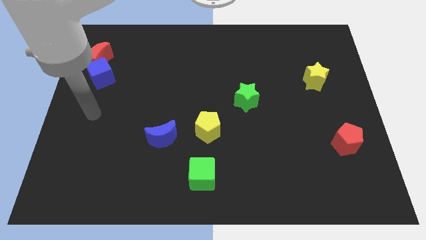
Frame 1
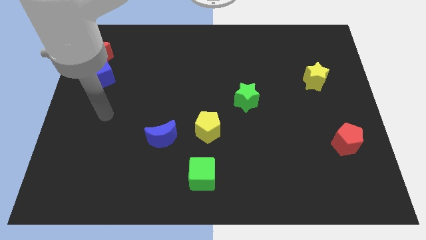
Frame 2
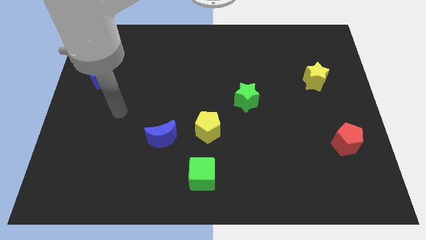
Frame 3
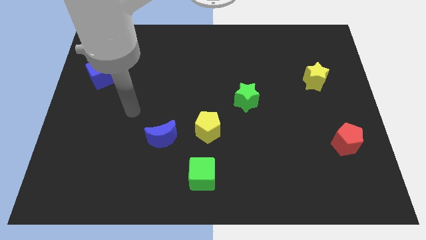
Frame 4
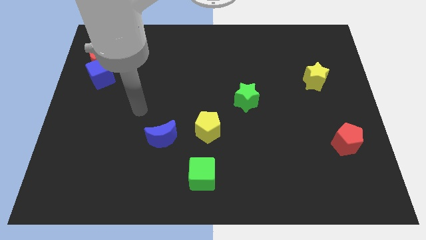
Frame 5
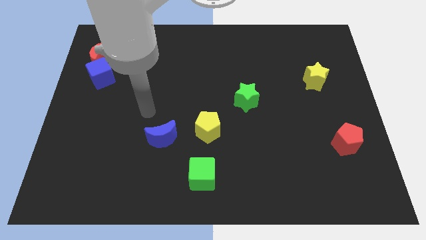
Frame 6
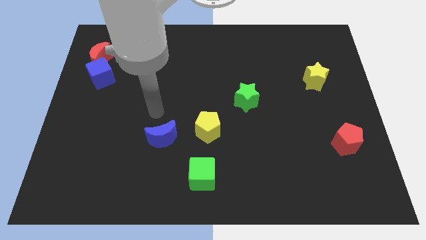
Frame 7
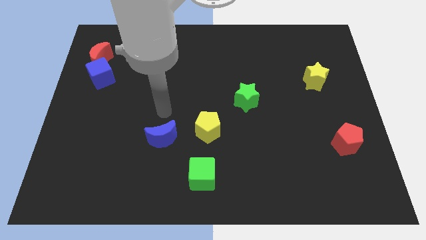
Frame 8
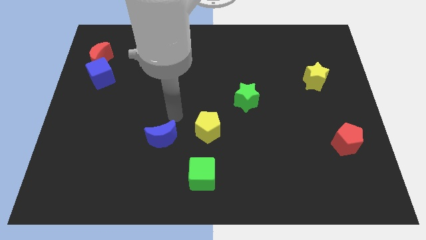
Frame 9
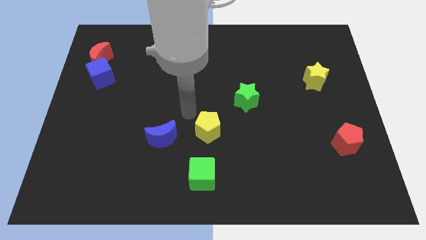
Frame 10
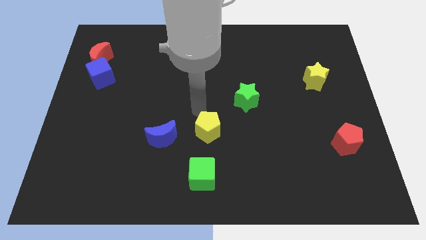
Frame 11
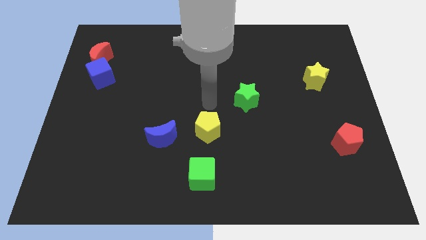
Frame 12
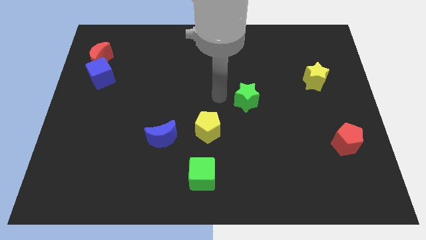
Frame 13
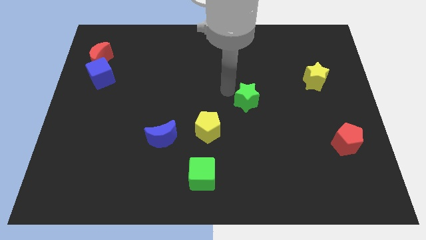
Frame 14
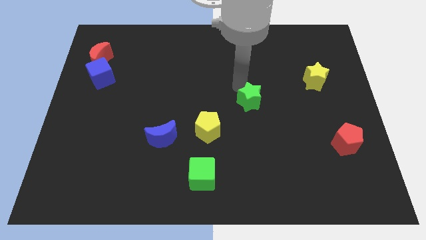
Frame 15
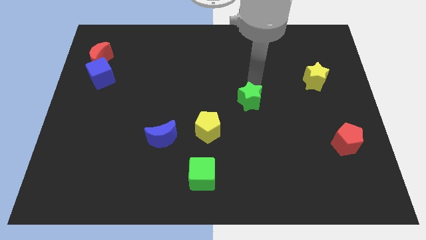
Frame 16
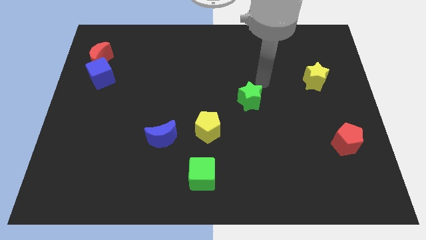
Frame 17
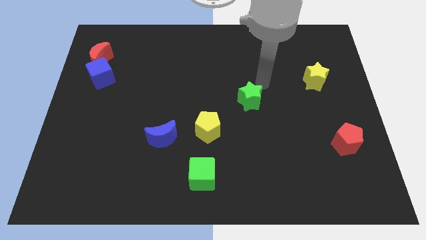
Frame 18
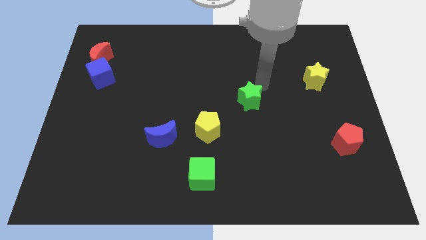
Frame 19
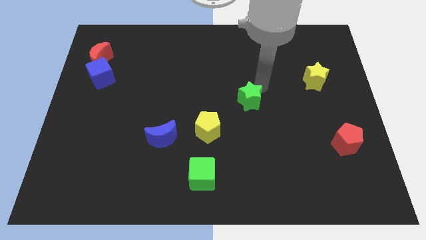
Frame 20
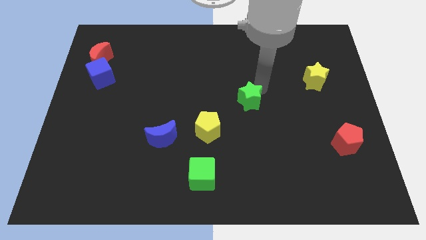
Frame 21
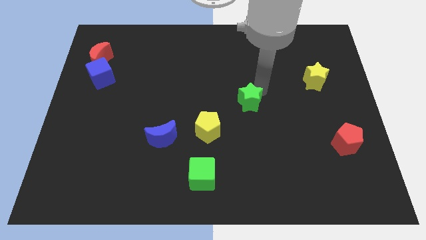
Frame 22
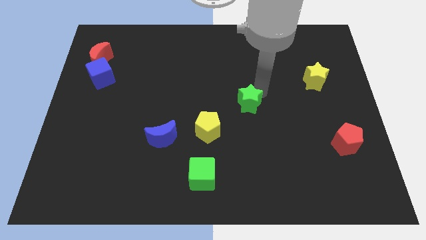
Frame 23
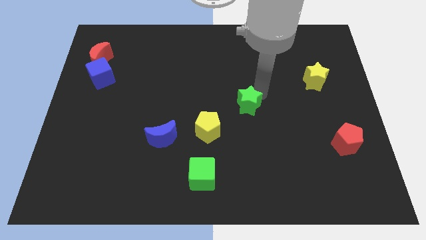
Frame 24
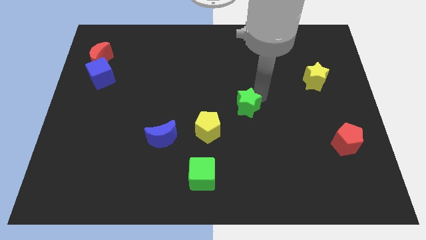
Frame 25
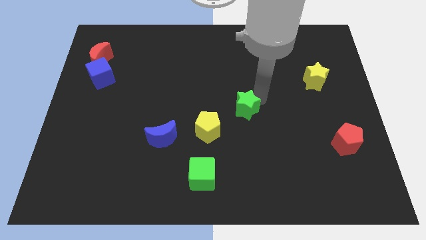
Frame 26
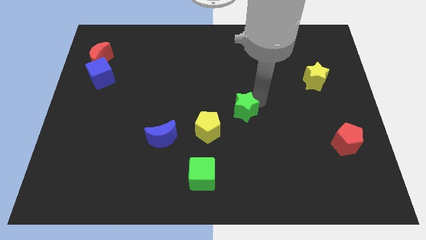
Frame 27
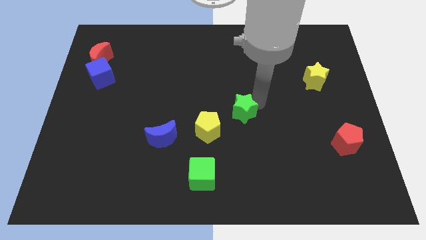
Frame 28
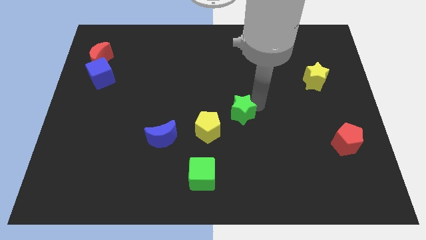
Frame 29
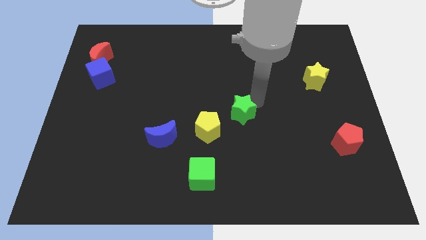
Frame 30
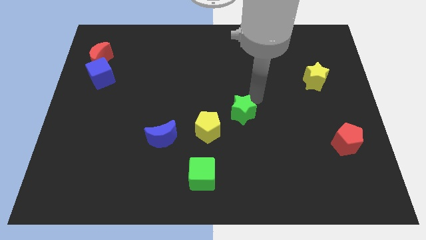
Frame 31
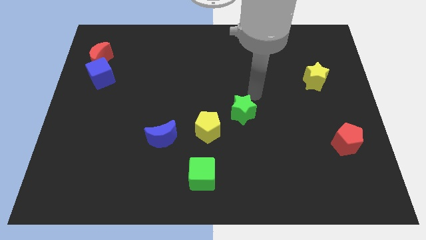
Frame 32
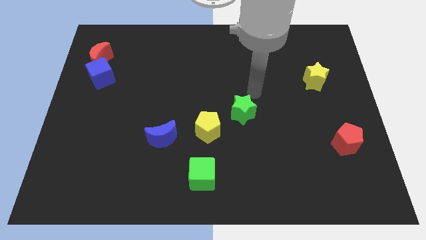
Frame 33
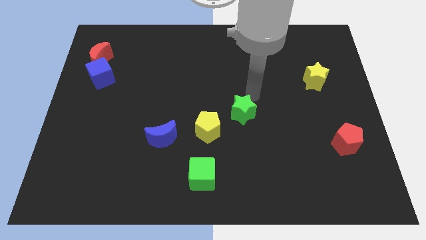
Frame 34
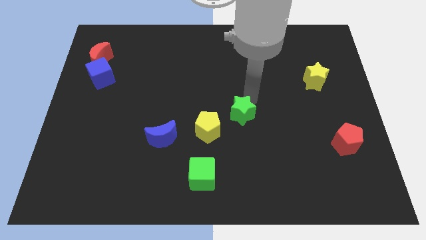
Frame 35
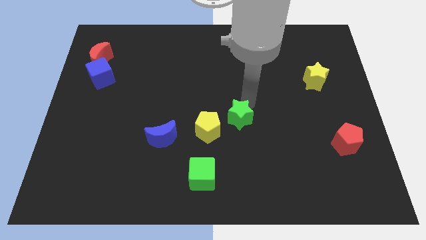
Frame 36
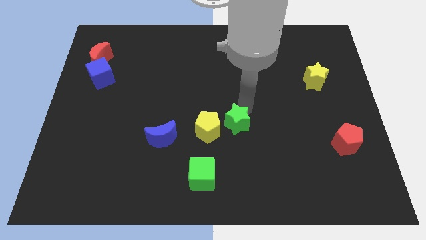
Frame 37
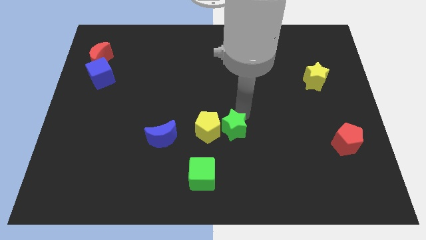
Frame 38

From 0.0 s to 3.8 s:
push the green star slightly downwards and left

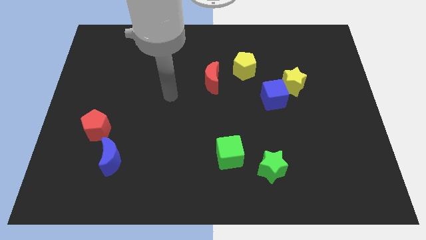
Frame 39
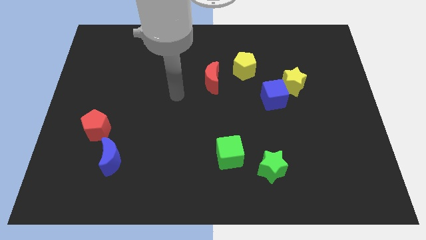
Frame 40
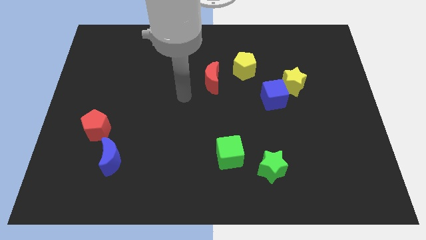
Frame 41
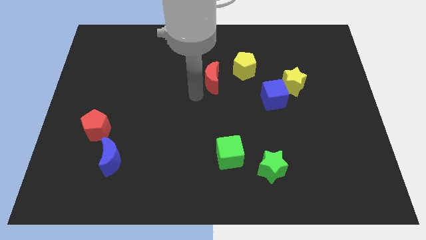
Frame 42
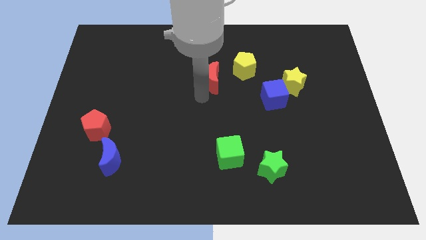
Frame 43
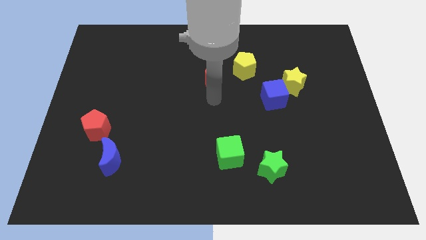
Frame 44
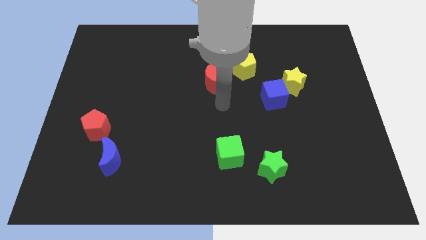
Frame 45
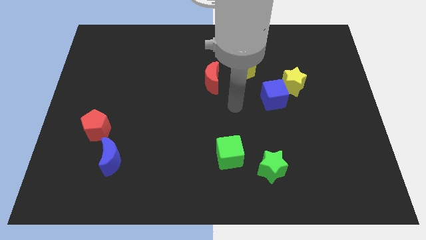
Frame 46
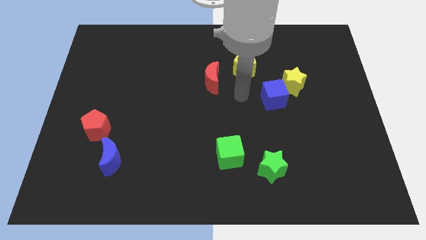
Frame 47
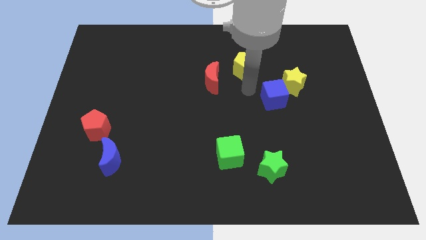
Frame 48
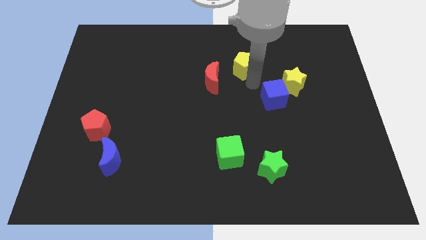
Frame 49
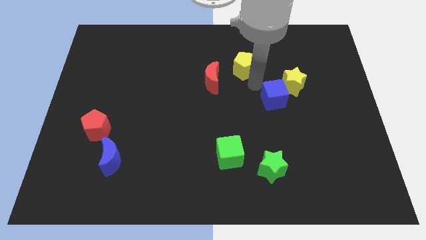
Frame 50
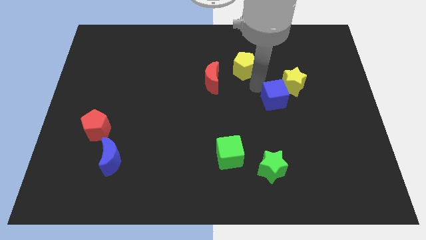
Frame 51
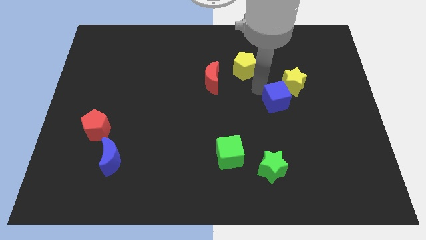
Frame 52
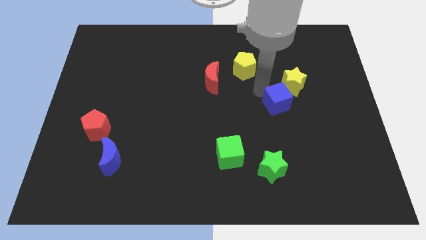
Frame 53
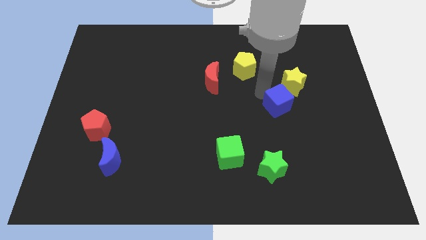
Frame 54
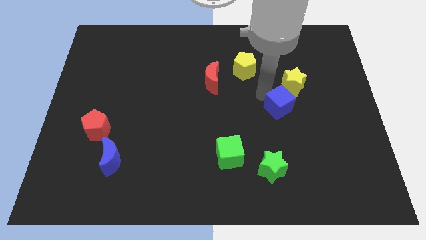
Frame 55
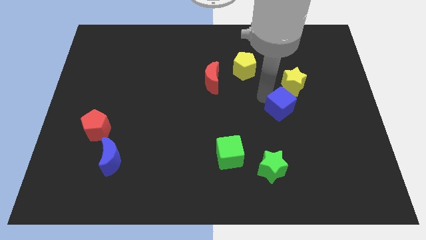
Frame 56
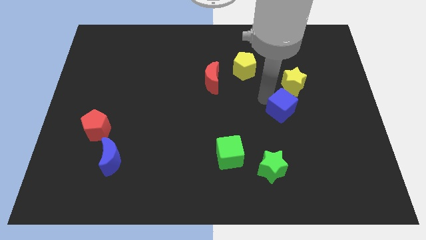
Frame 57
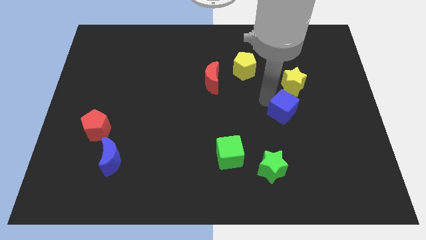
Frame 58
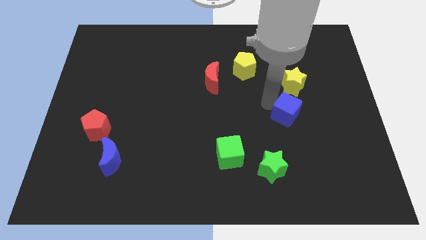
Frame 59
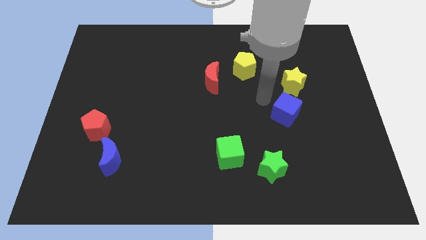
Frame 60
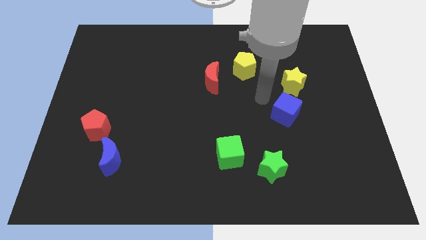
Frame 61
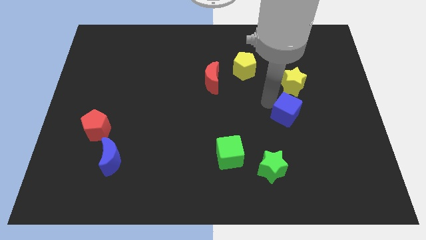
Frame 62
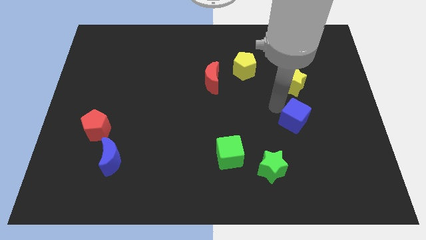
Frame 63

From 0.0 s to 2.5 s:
slide the blue cube downwards and right a little

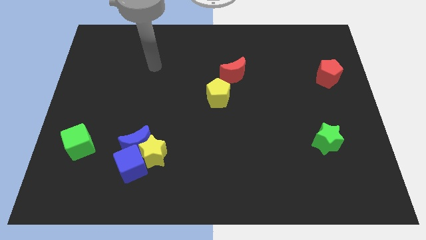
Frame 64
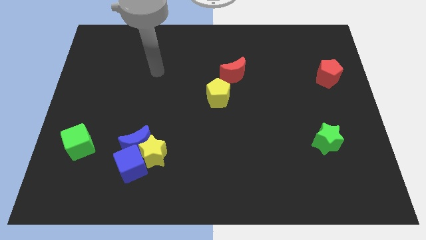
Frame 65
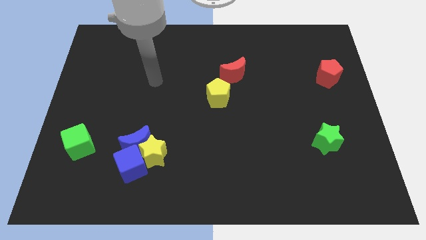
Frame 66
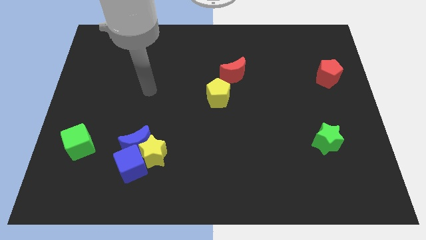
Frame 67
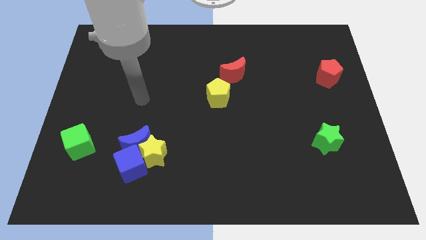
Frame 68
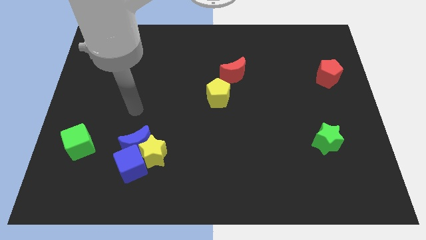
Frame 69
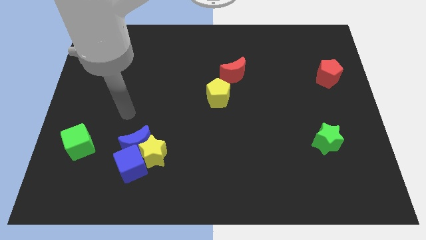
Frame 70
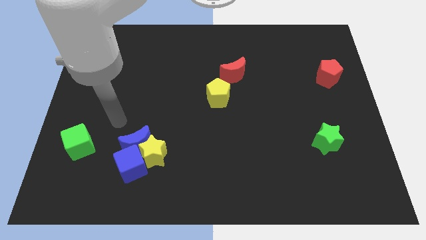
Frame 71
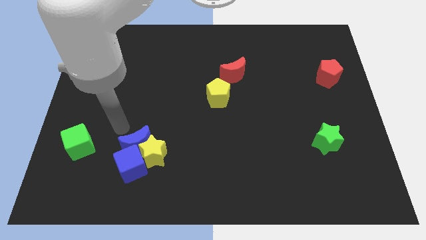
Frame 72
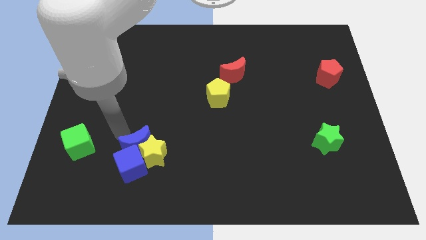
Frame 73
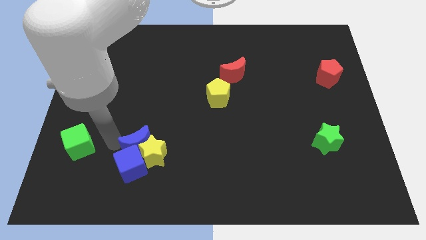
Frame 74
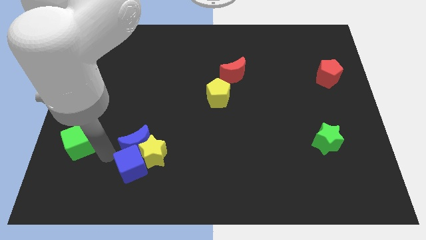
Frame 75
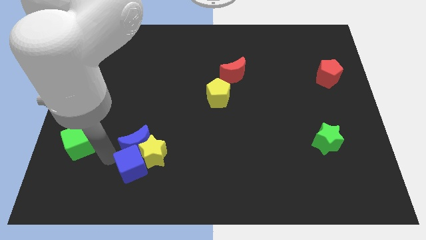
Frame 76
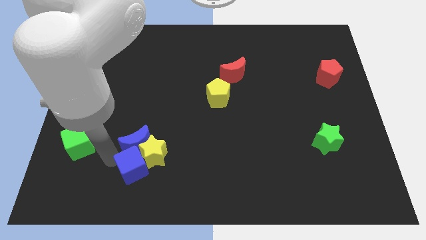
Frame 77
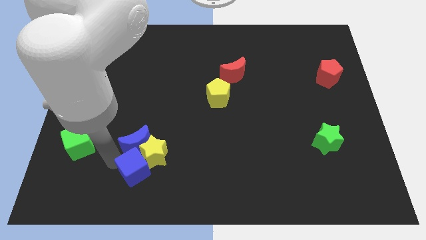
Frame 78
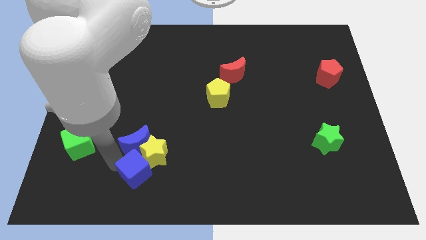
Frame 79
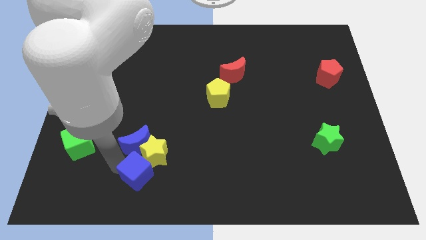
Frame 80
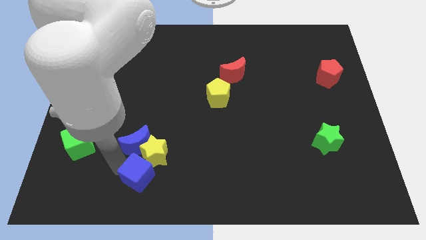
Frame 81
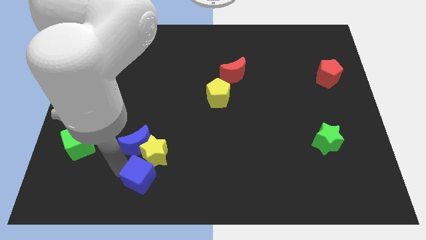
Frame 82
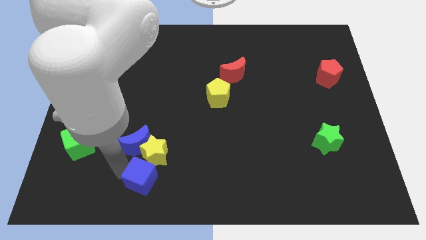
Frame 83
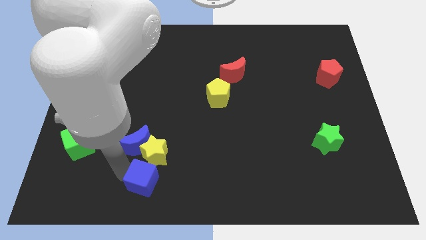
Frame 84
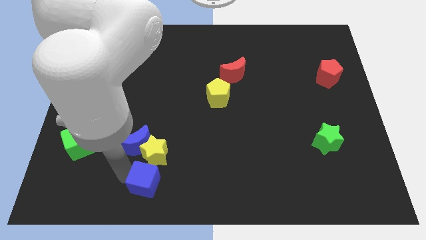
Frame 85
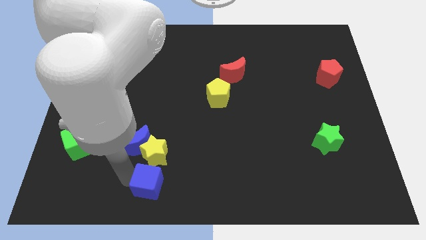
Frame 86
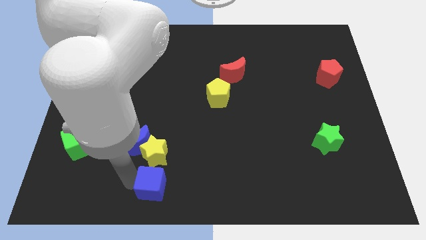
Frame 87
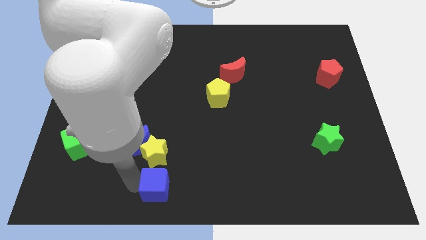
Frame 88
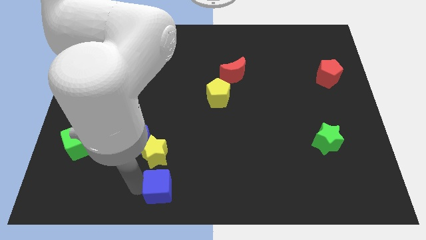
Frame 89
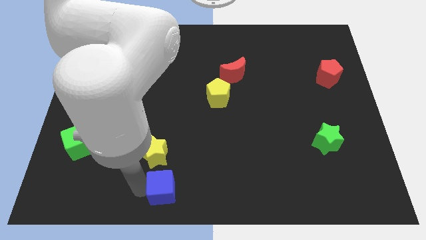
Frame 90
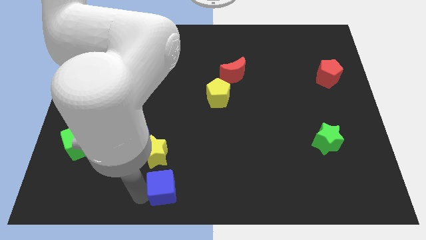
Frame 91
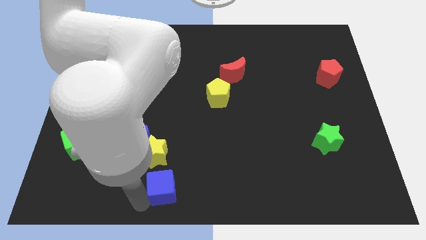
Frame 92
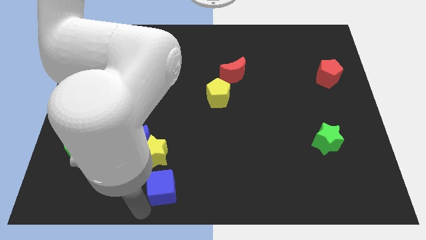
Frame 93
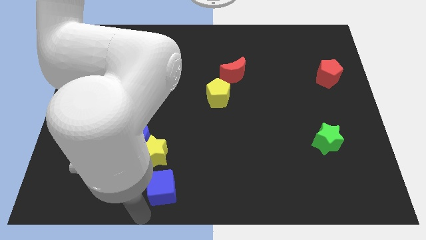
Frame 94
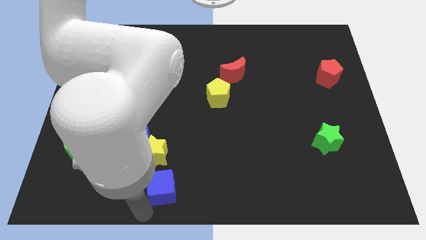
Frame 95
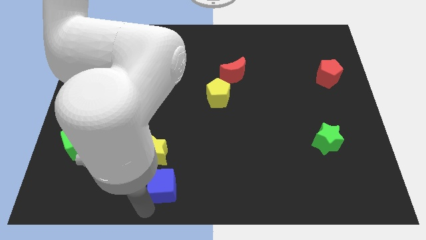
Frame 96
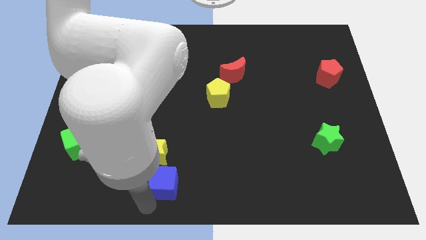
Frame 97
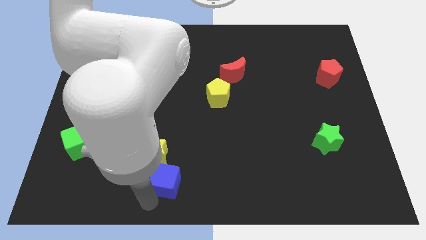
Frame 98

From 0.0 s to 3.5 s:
move the blue cube somewhat to the right
